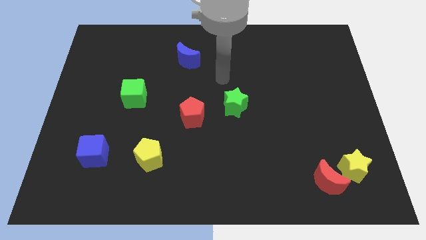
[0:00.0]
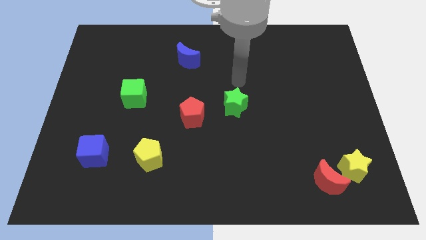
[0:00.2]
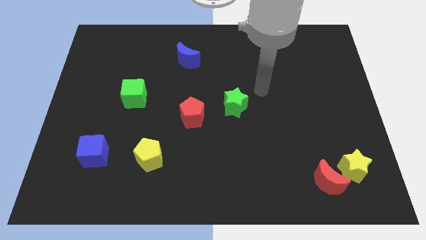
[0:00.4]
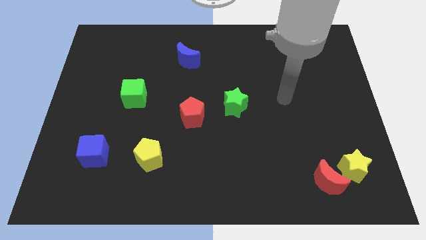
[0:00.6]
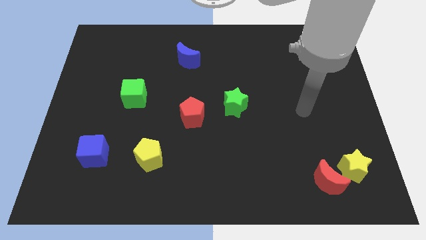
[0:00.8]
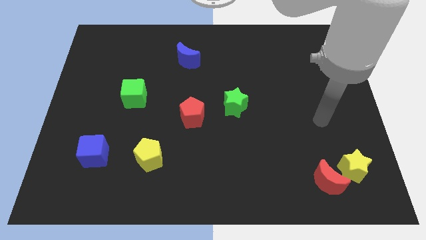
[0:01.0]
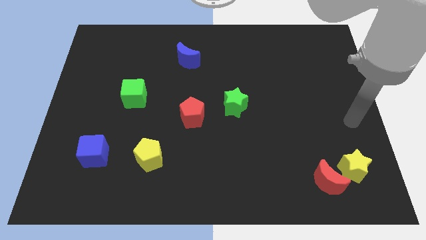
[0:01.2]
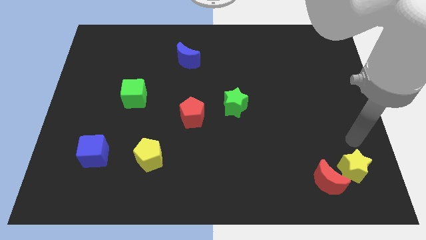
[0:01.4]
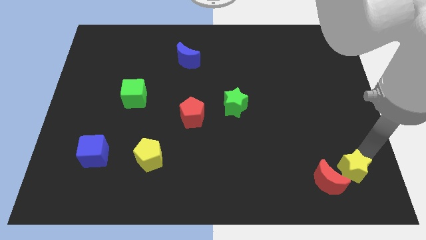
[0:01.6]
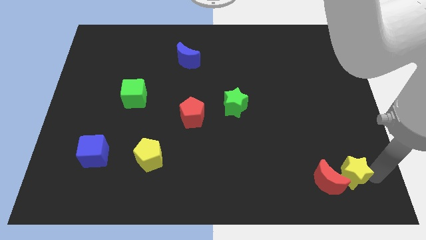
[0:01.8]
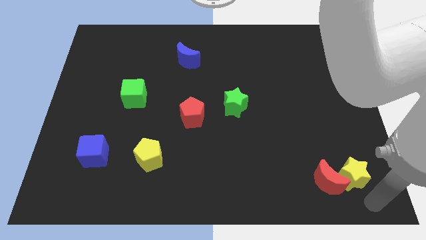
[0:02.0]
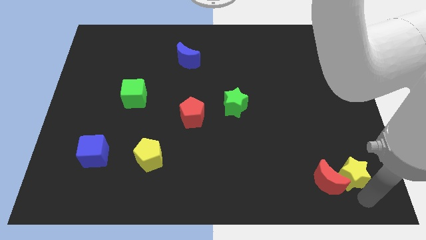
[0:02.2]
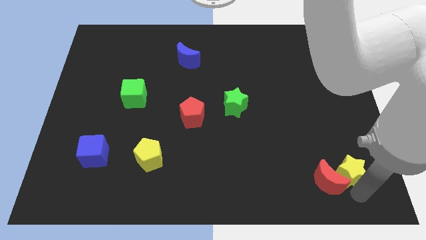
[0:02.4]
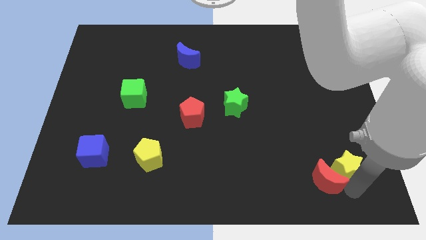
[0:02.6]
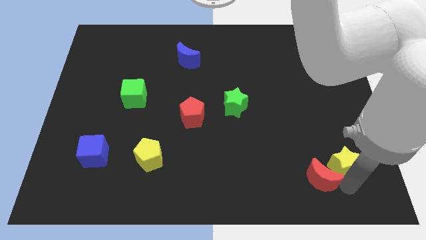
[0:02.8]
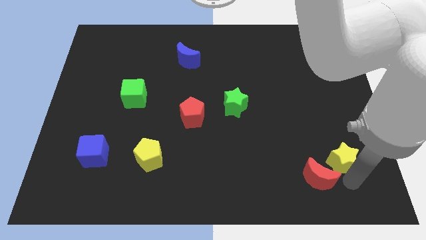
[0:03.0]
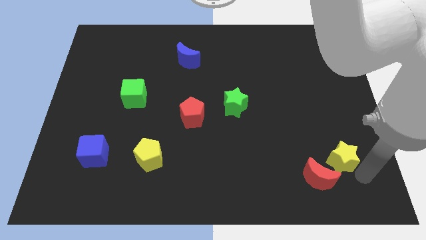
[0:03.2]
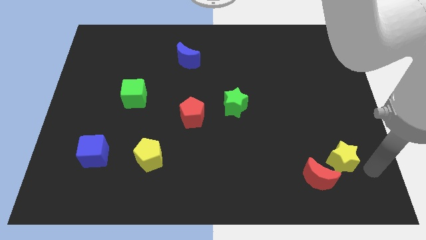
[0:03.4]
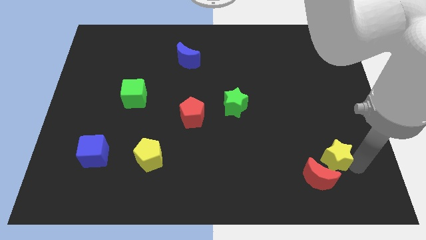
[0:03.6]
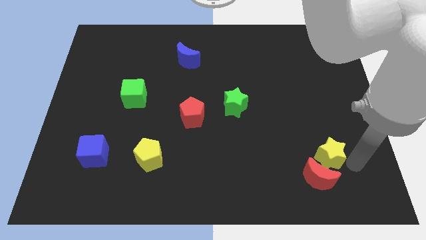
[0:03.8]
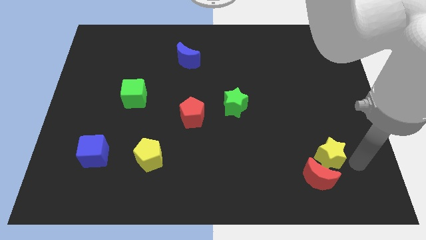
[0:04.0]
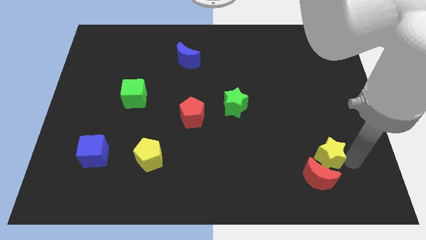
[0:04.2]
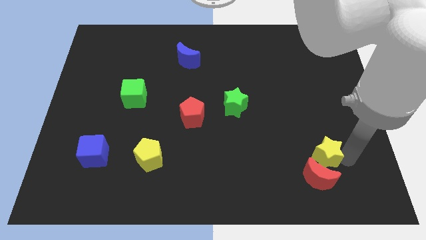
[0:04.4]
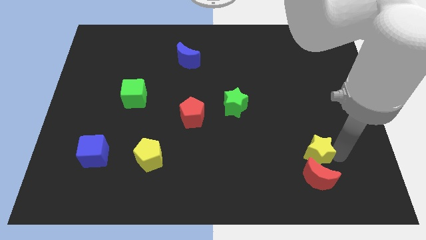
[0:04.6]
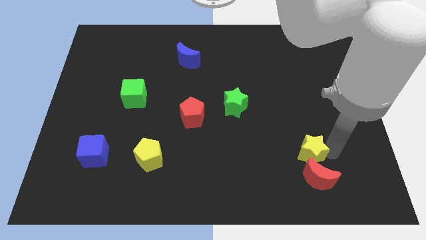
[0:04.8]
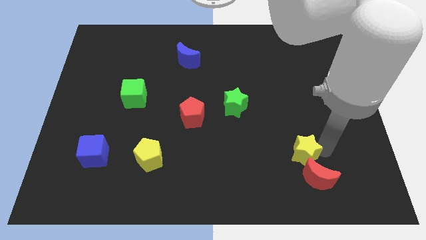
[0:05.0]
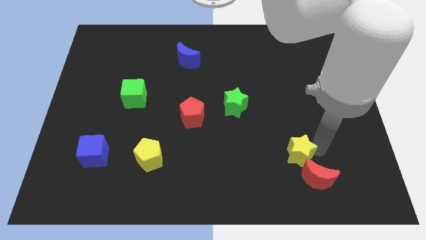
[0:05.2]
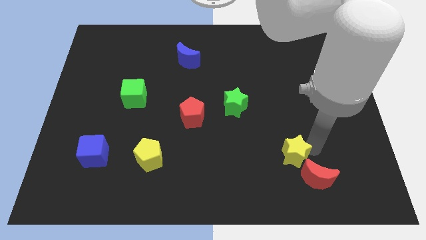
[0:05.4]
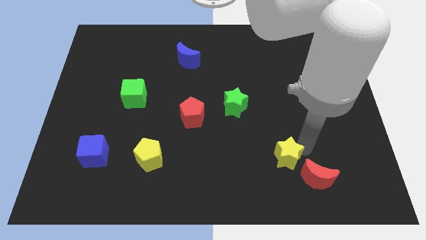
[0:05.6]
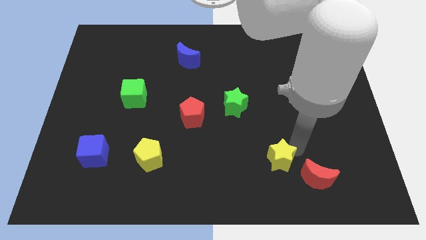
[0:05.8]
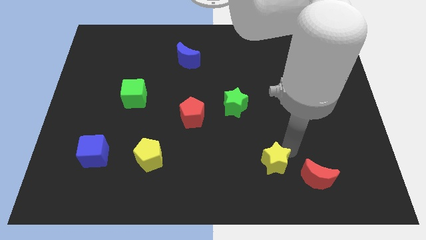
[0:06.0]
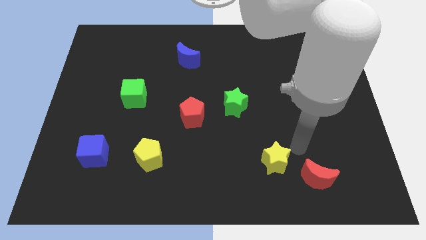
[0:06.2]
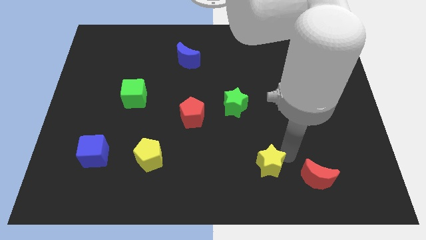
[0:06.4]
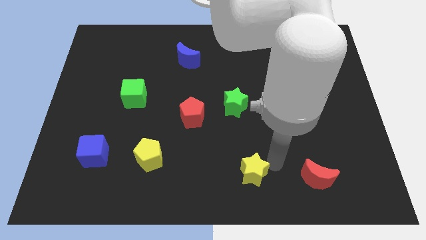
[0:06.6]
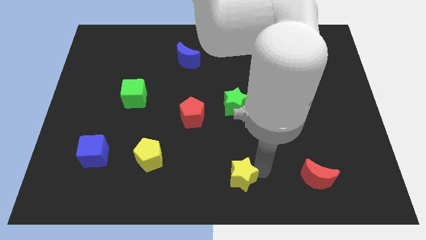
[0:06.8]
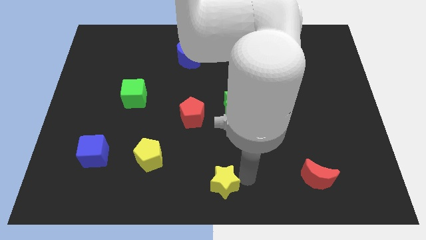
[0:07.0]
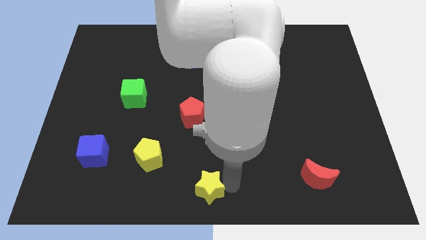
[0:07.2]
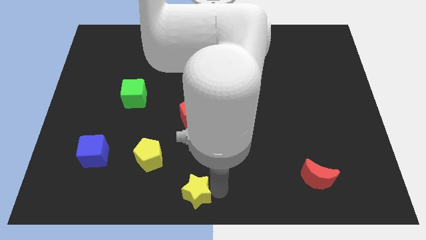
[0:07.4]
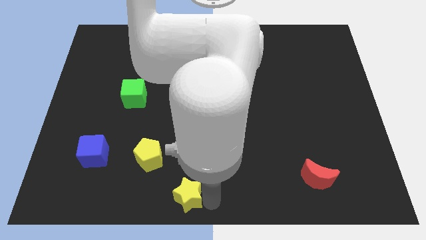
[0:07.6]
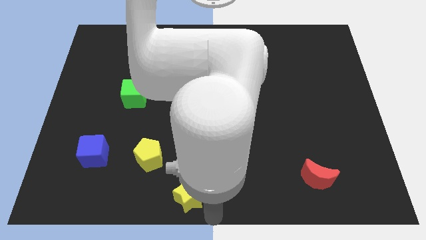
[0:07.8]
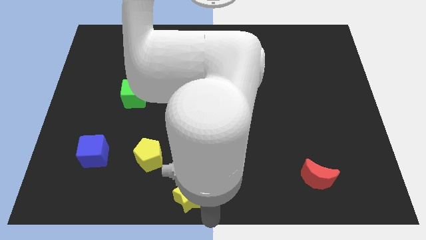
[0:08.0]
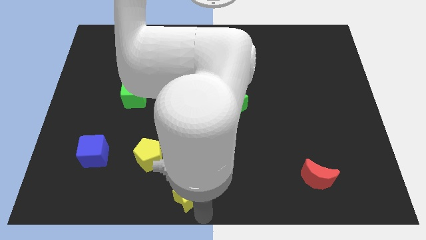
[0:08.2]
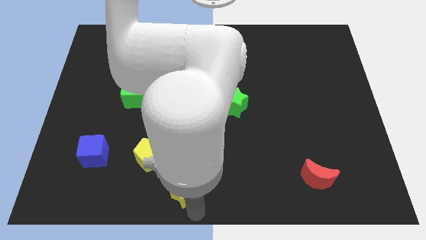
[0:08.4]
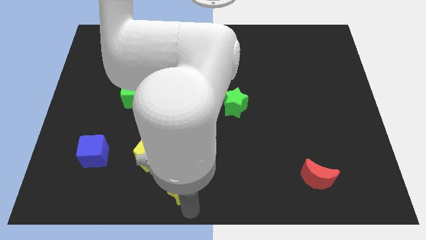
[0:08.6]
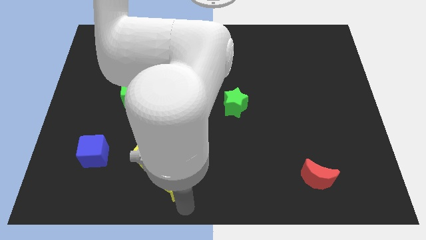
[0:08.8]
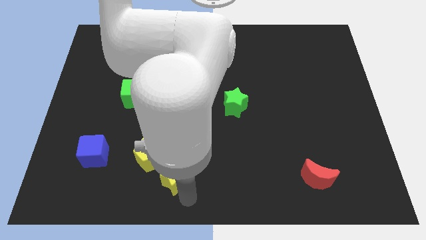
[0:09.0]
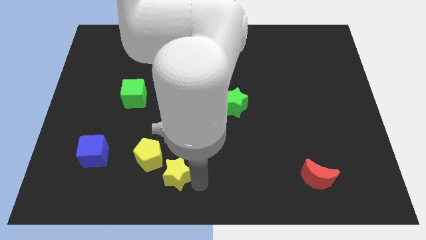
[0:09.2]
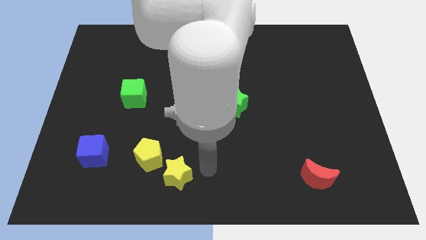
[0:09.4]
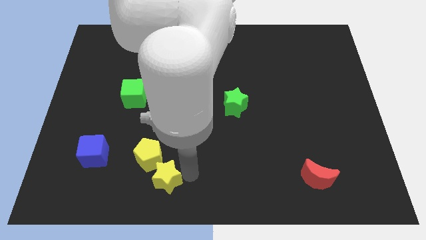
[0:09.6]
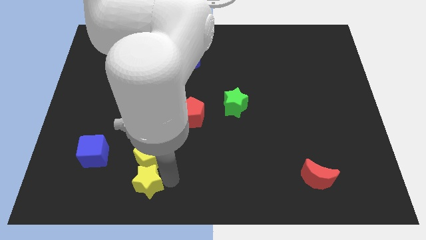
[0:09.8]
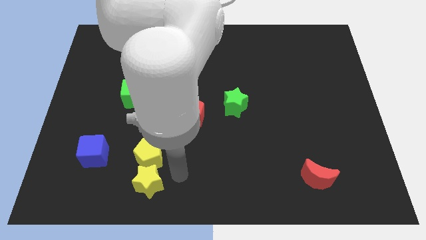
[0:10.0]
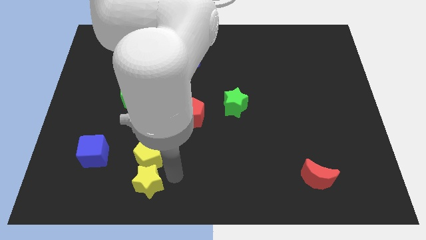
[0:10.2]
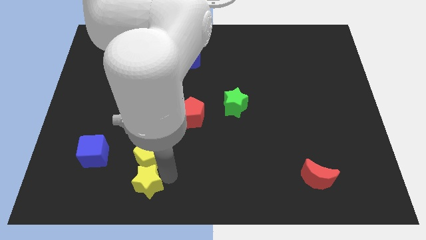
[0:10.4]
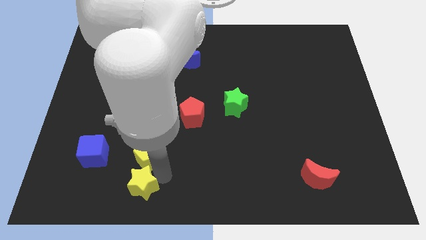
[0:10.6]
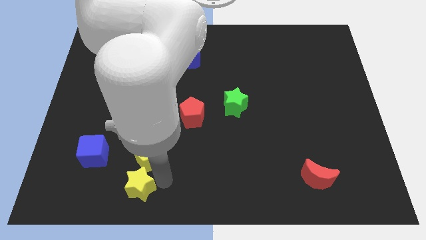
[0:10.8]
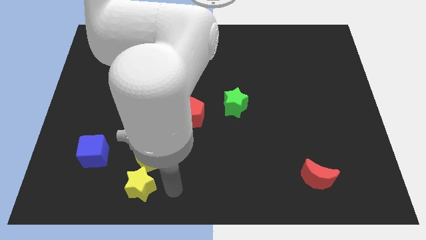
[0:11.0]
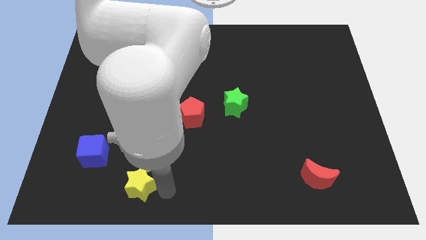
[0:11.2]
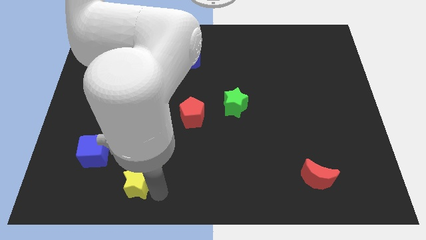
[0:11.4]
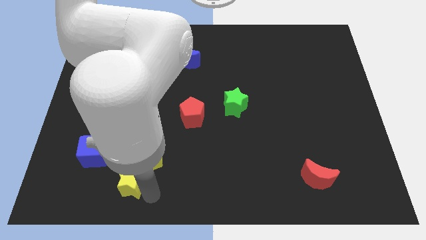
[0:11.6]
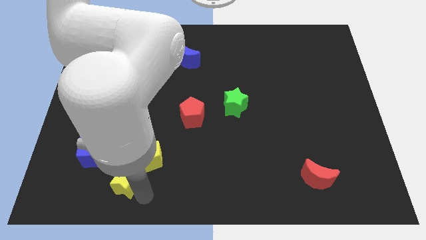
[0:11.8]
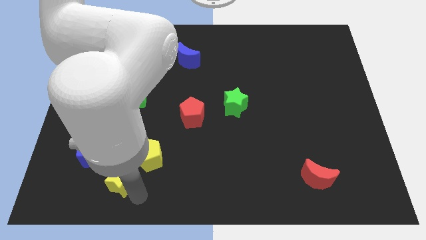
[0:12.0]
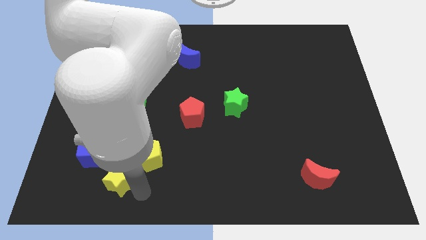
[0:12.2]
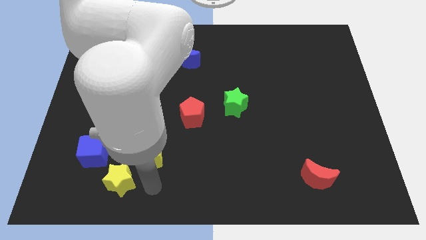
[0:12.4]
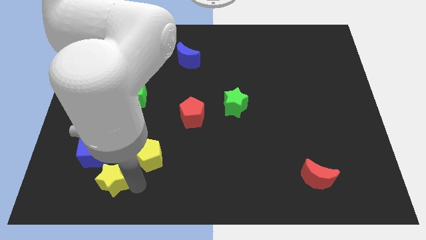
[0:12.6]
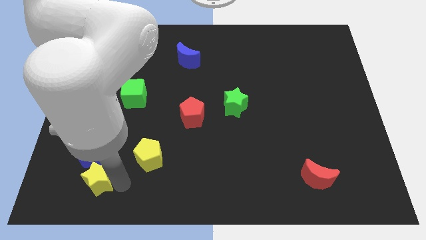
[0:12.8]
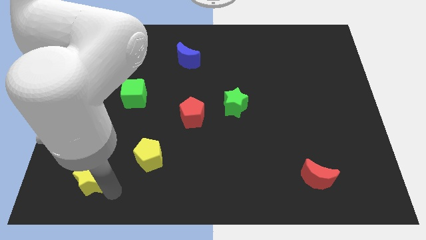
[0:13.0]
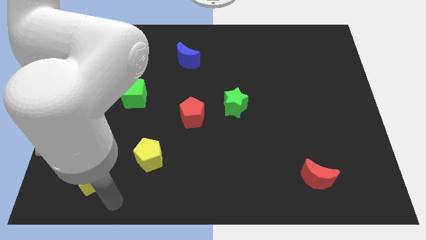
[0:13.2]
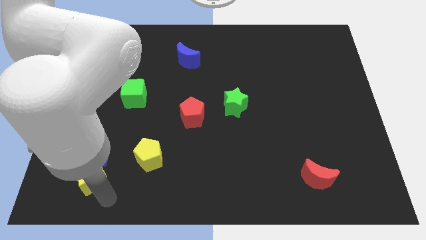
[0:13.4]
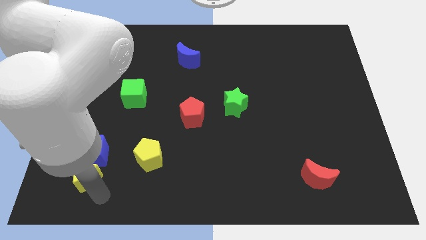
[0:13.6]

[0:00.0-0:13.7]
push the yellow star just left of the yellow pentagon
